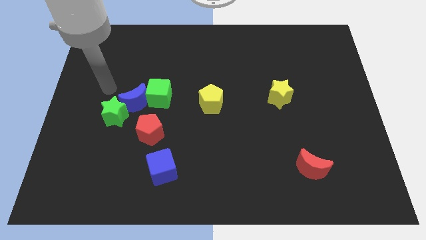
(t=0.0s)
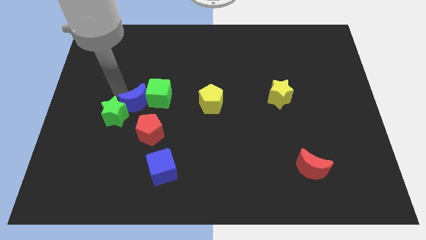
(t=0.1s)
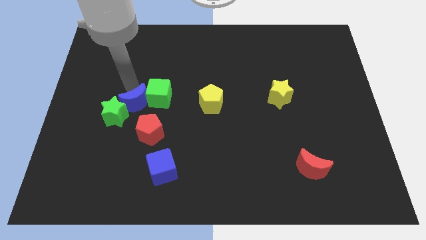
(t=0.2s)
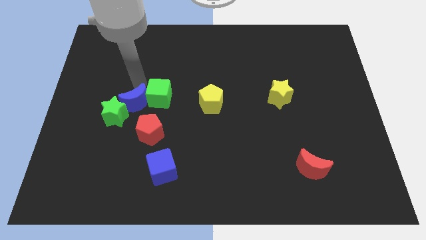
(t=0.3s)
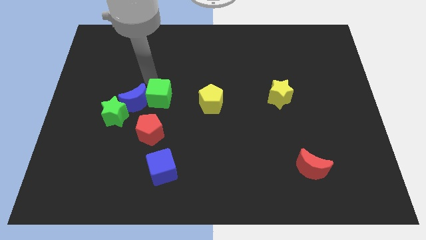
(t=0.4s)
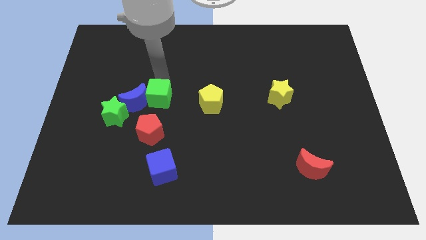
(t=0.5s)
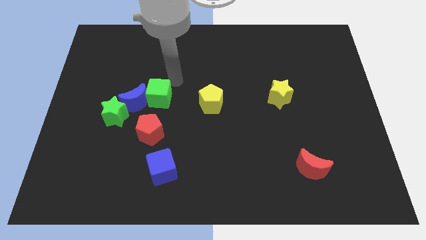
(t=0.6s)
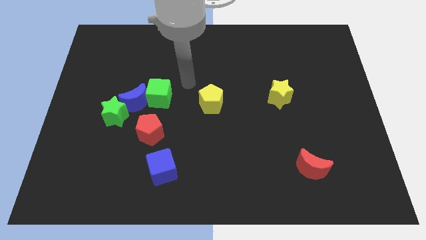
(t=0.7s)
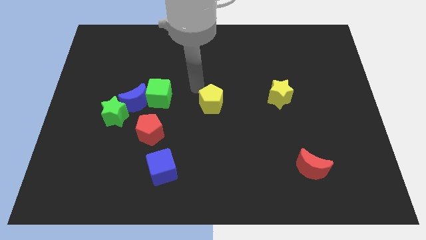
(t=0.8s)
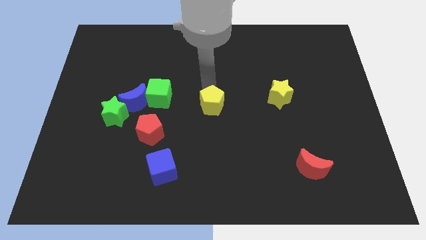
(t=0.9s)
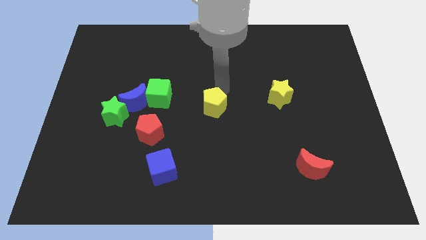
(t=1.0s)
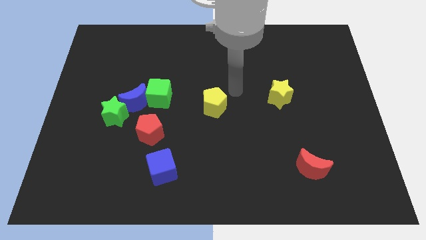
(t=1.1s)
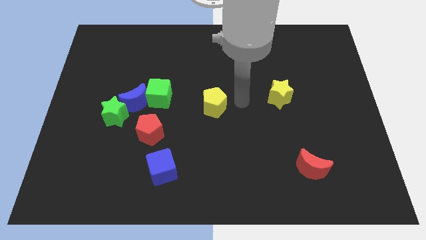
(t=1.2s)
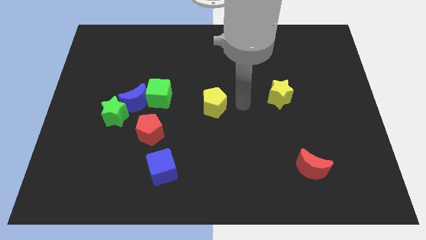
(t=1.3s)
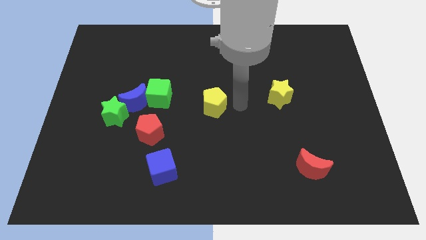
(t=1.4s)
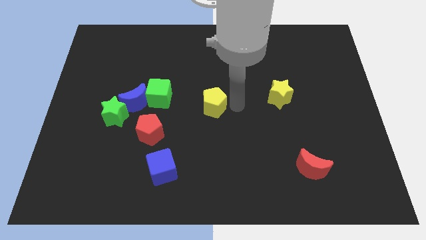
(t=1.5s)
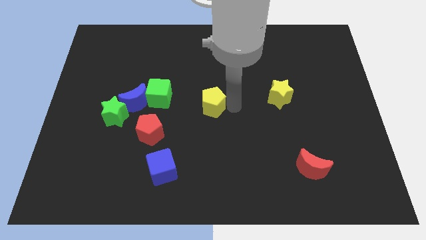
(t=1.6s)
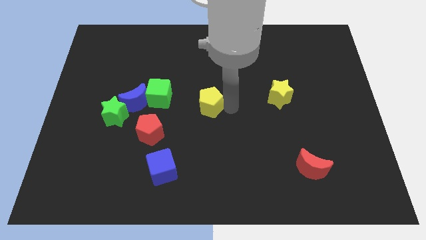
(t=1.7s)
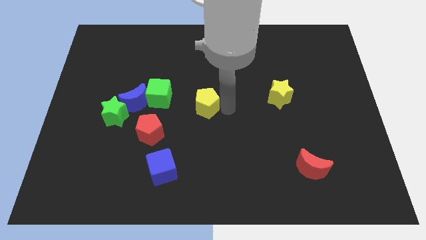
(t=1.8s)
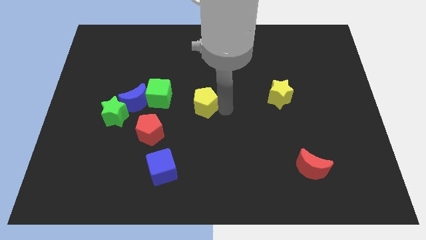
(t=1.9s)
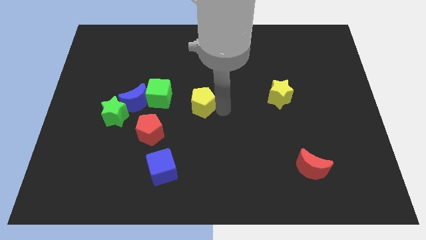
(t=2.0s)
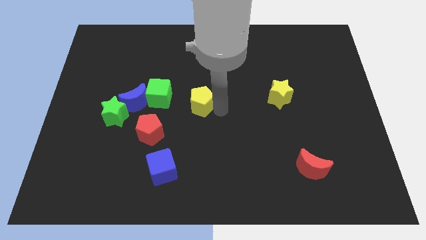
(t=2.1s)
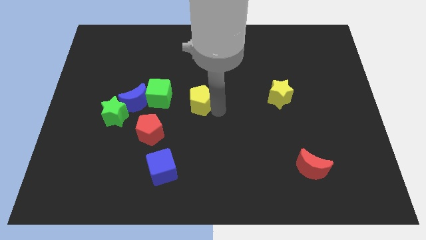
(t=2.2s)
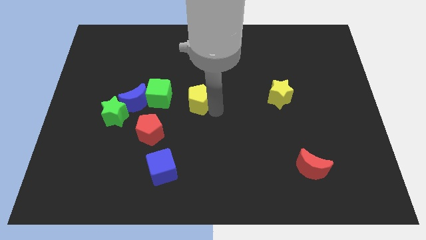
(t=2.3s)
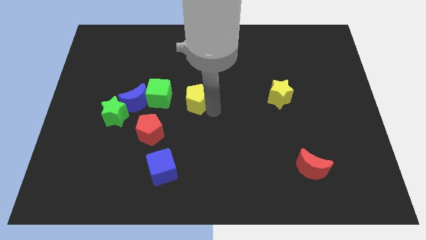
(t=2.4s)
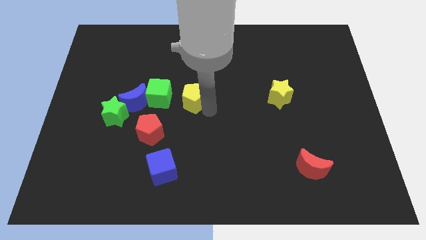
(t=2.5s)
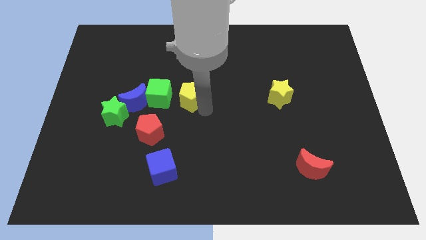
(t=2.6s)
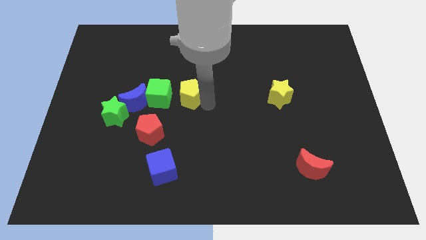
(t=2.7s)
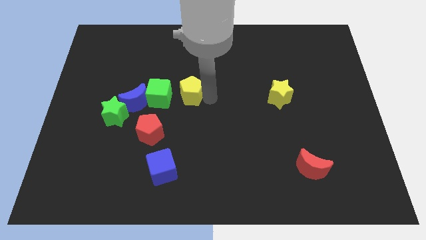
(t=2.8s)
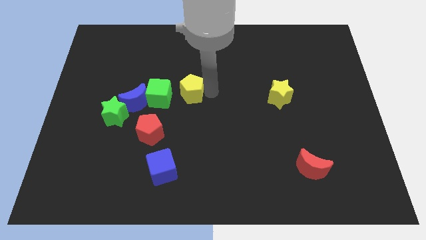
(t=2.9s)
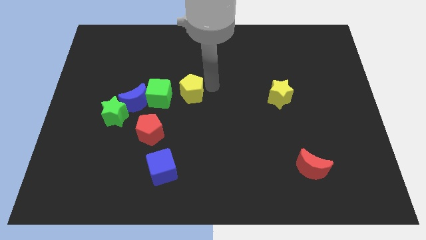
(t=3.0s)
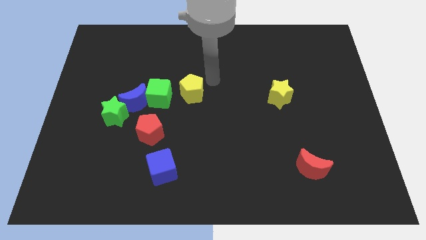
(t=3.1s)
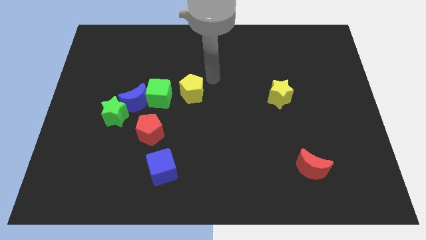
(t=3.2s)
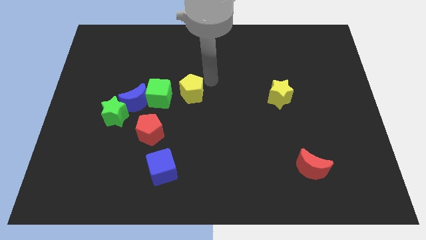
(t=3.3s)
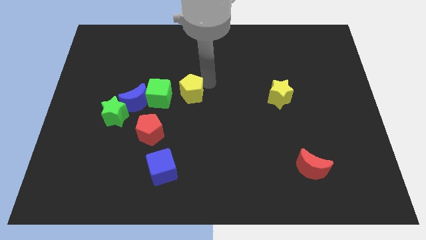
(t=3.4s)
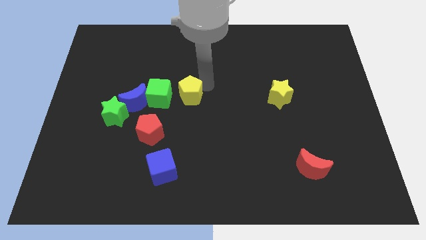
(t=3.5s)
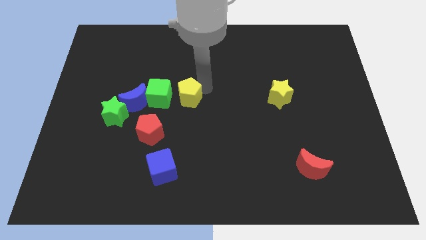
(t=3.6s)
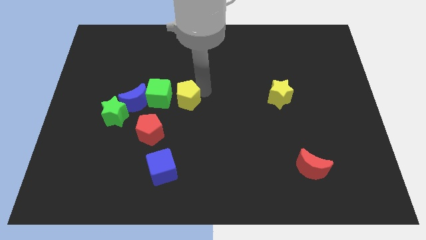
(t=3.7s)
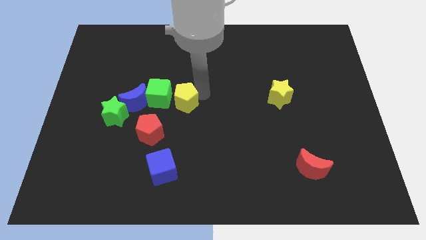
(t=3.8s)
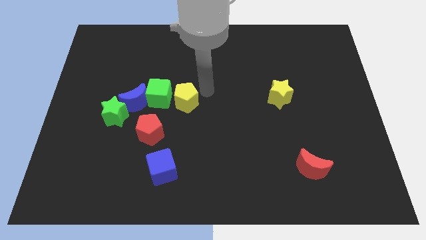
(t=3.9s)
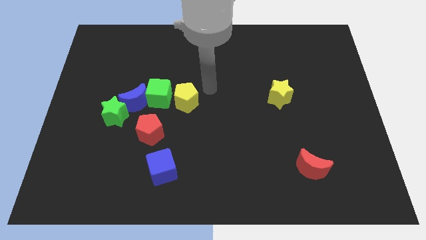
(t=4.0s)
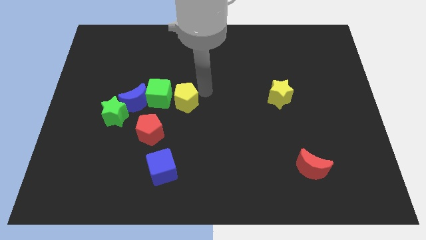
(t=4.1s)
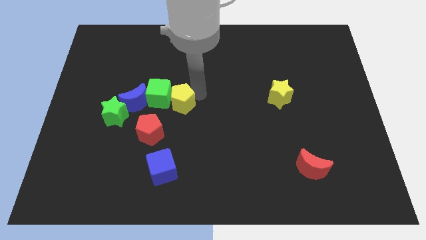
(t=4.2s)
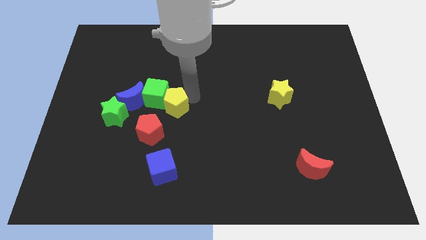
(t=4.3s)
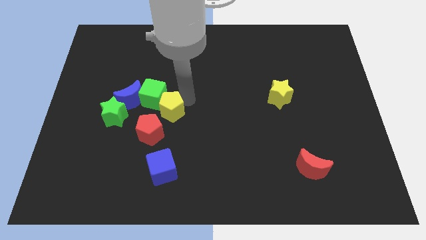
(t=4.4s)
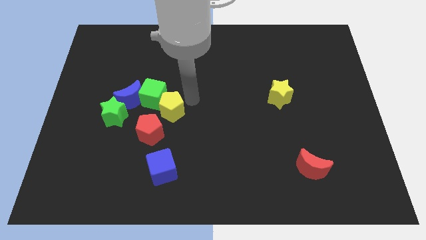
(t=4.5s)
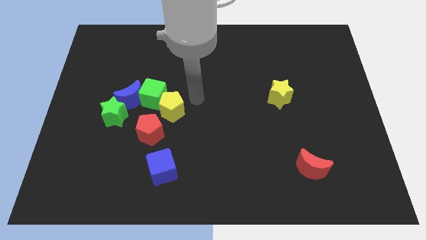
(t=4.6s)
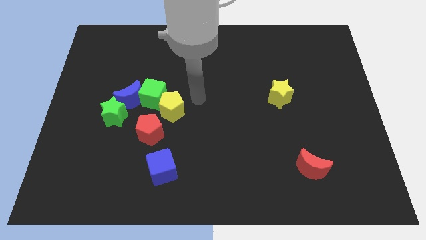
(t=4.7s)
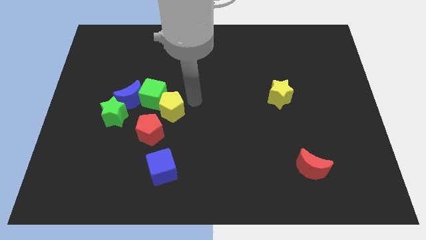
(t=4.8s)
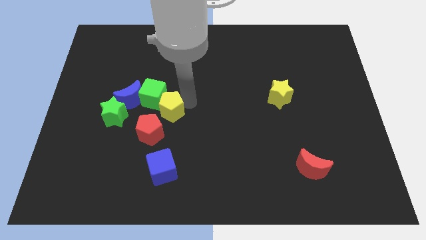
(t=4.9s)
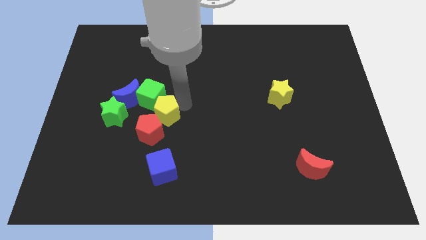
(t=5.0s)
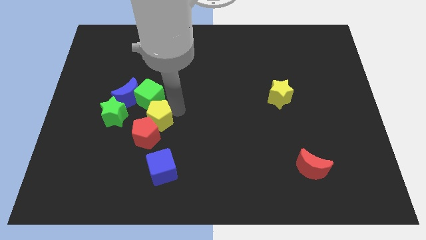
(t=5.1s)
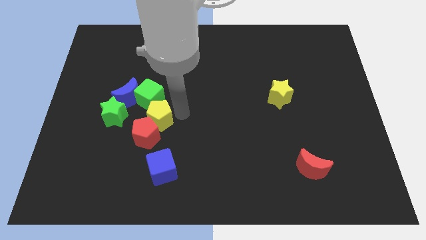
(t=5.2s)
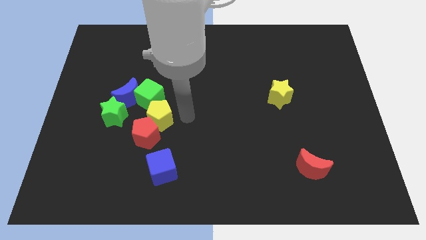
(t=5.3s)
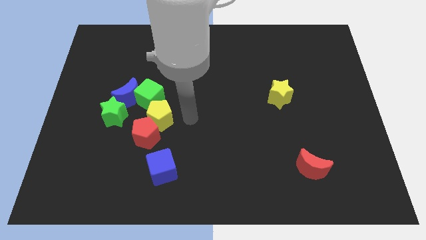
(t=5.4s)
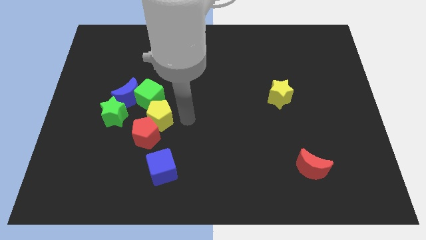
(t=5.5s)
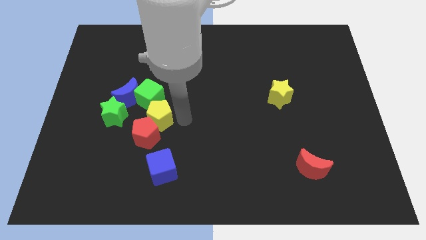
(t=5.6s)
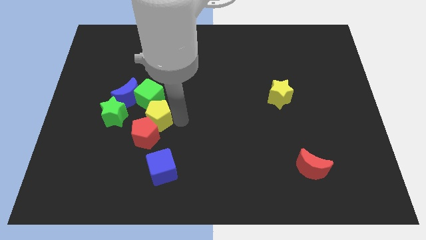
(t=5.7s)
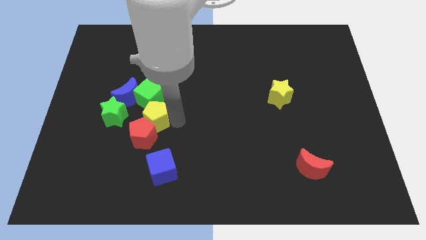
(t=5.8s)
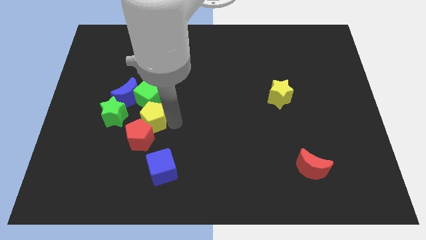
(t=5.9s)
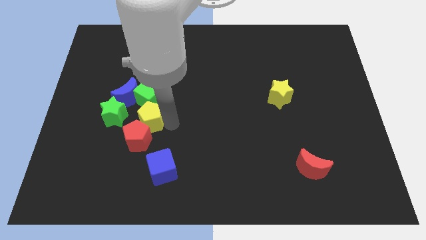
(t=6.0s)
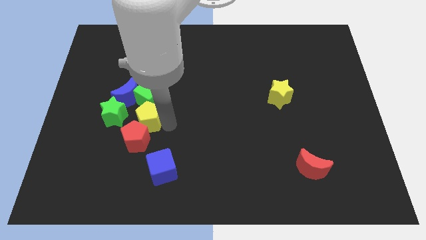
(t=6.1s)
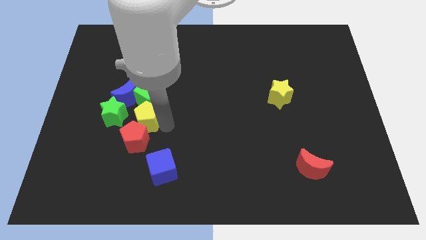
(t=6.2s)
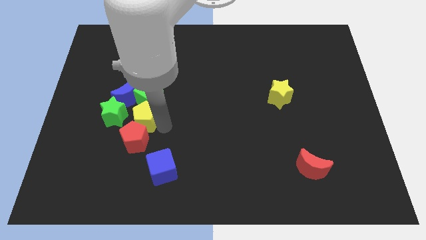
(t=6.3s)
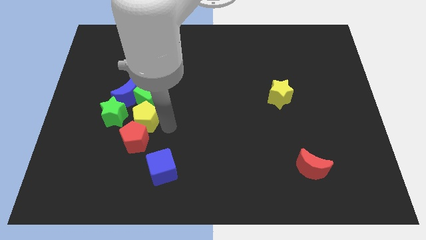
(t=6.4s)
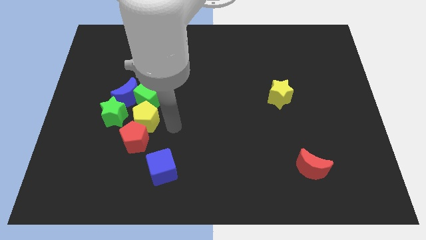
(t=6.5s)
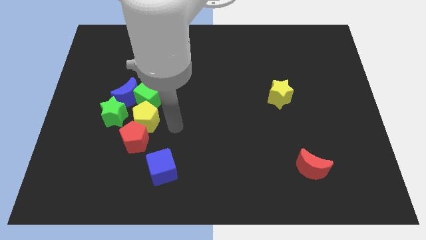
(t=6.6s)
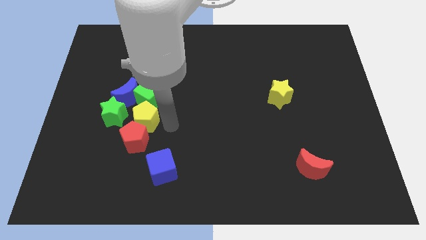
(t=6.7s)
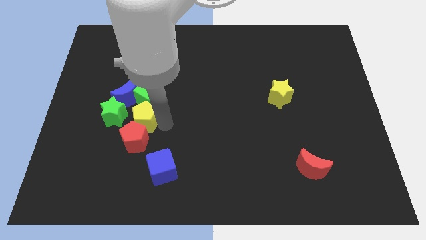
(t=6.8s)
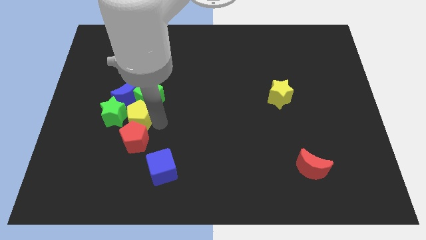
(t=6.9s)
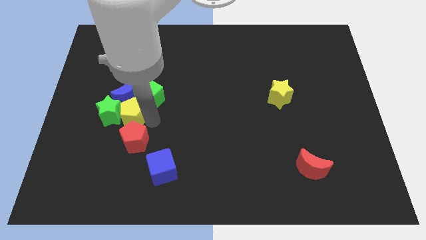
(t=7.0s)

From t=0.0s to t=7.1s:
move the yellow pentagon towards the green star

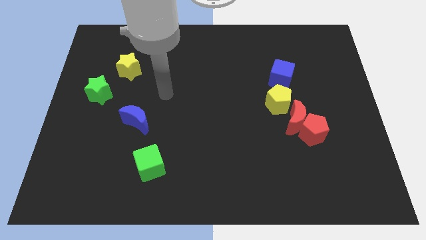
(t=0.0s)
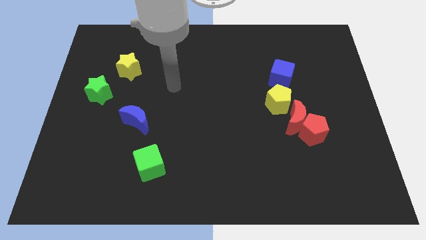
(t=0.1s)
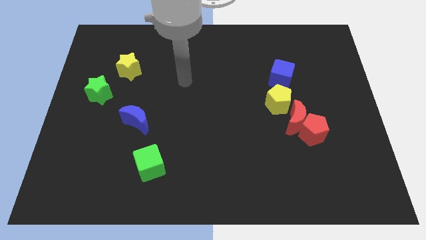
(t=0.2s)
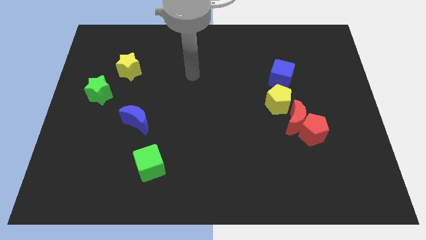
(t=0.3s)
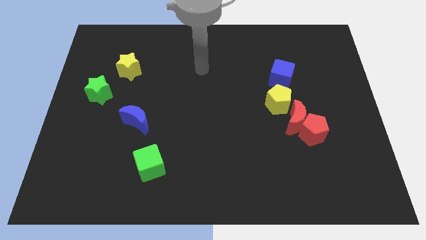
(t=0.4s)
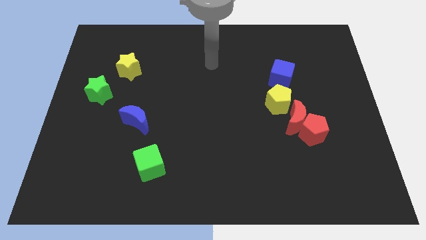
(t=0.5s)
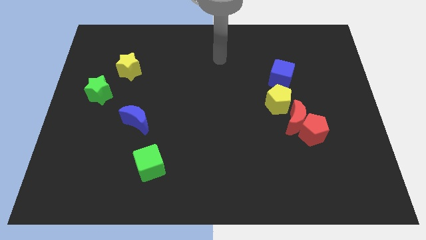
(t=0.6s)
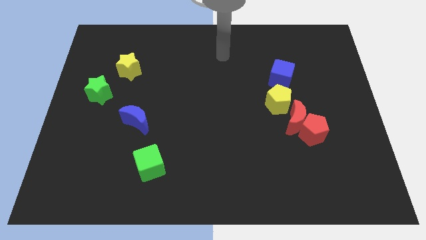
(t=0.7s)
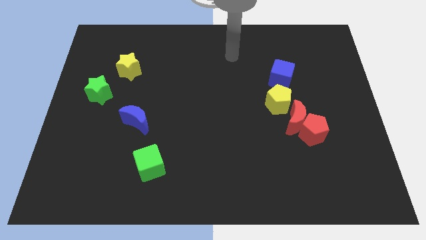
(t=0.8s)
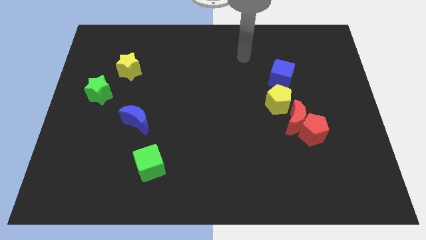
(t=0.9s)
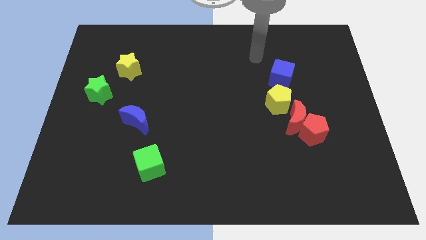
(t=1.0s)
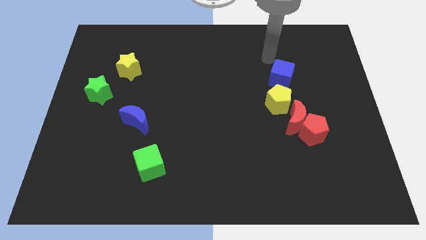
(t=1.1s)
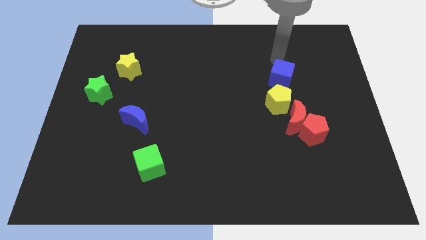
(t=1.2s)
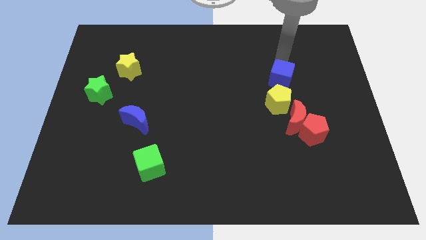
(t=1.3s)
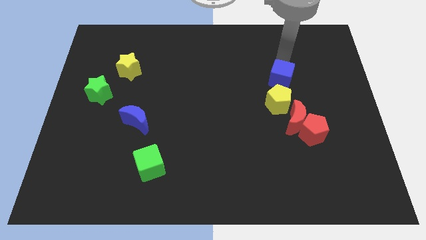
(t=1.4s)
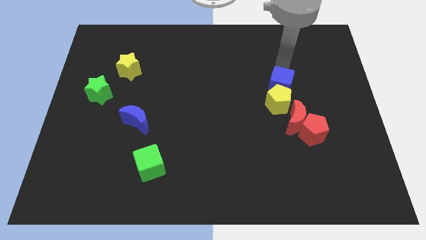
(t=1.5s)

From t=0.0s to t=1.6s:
move the blue cube towards the yellow pentagon
